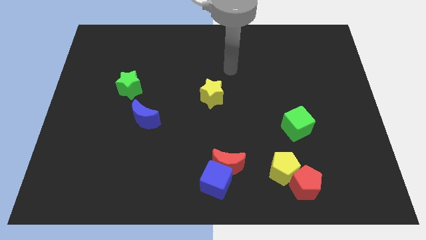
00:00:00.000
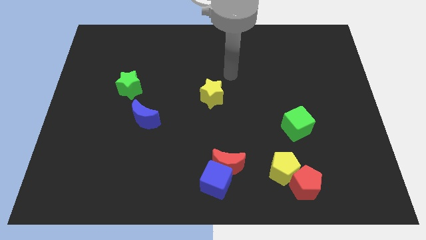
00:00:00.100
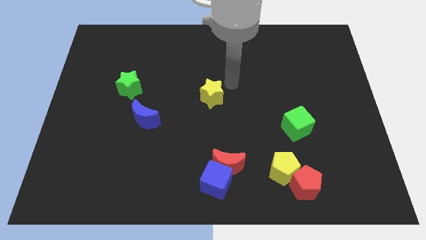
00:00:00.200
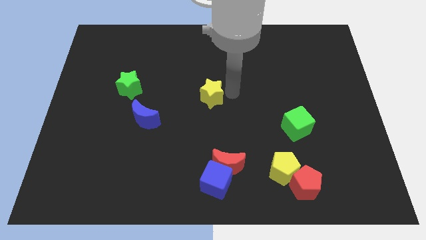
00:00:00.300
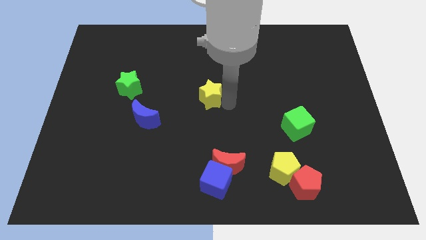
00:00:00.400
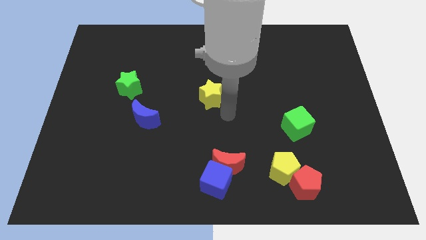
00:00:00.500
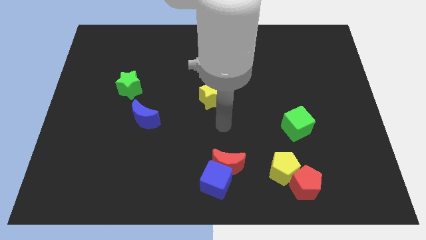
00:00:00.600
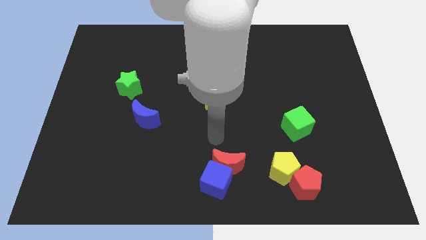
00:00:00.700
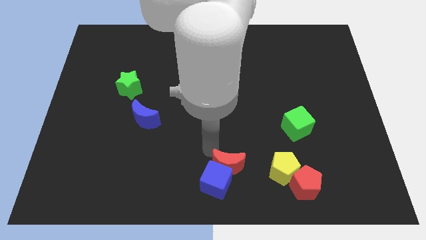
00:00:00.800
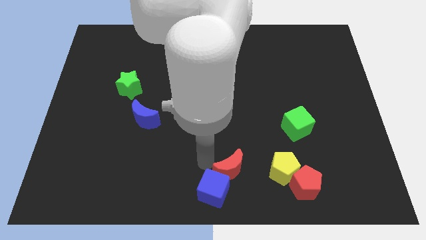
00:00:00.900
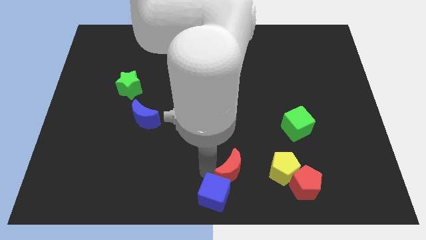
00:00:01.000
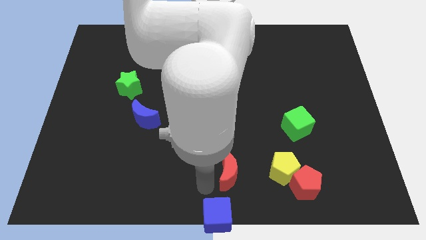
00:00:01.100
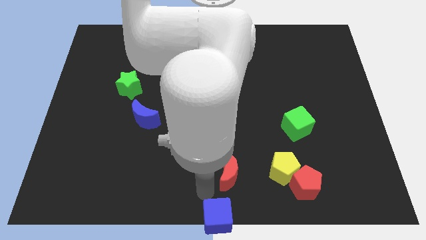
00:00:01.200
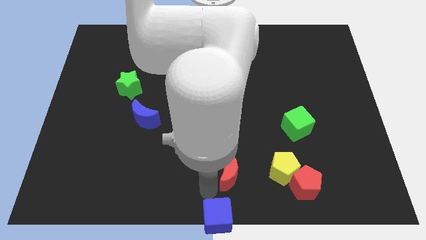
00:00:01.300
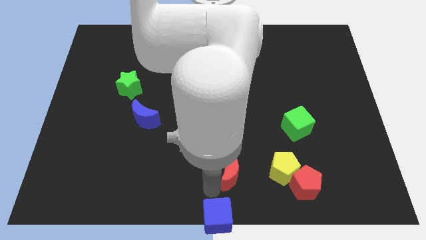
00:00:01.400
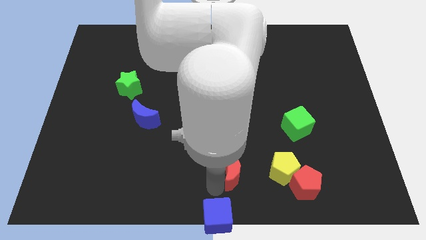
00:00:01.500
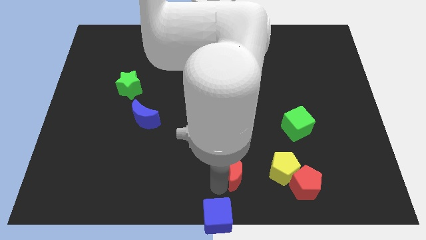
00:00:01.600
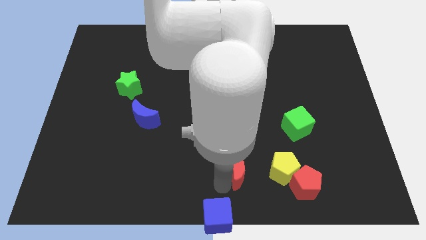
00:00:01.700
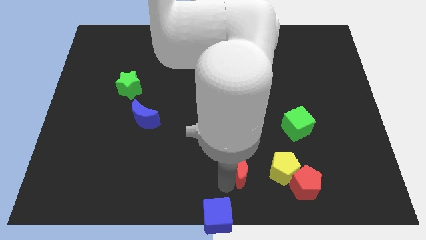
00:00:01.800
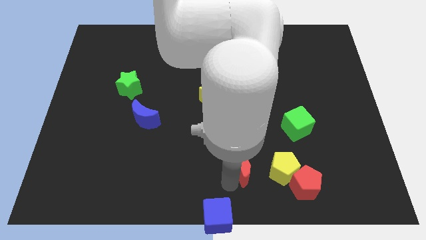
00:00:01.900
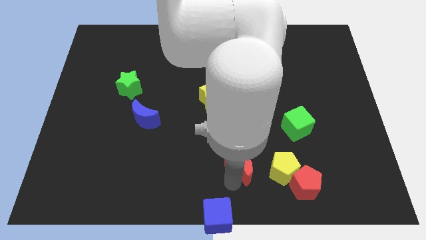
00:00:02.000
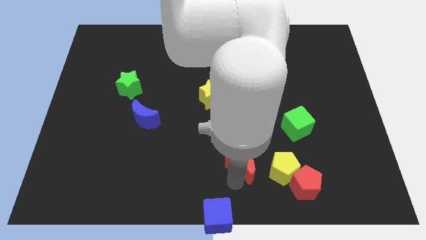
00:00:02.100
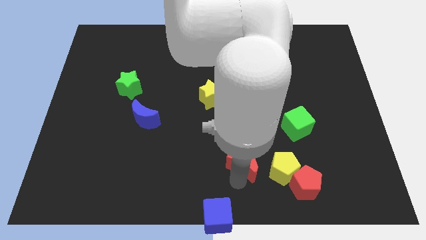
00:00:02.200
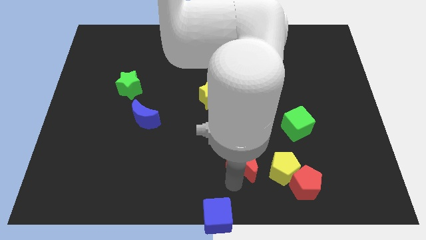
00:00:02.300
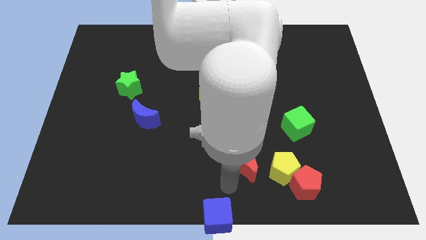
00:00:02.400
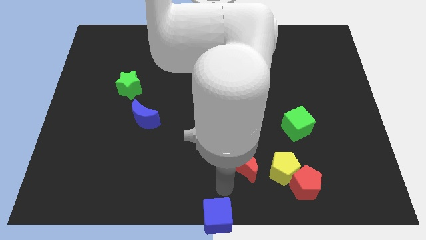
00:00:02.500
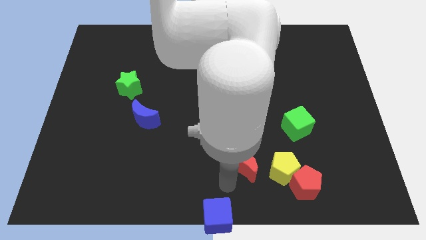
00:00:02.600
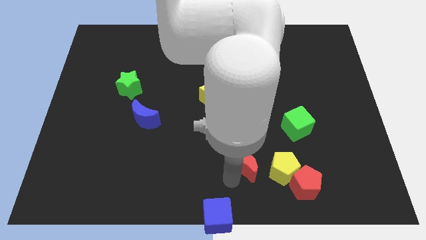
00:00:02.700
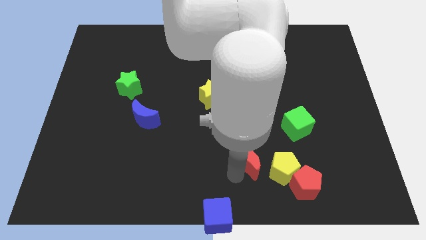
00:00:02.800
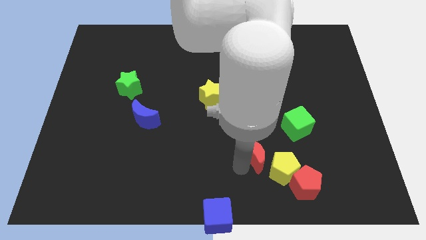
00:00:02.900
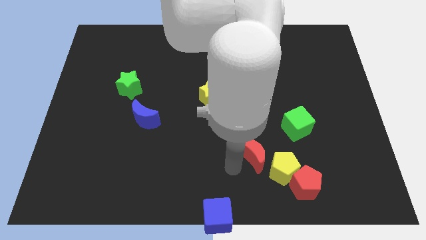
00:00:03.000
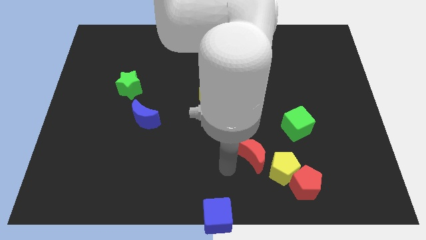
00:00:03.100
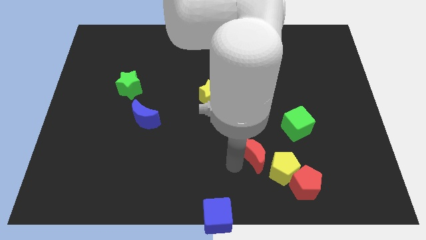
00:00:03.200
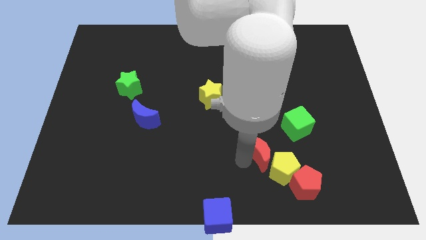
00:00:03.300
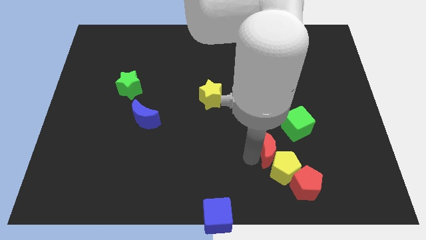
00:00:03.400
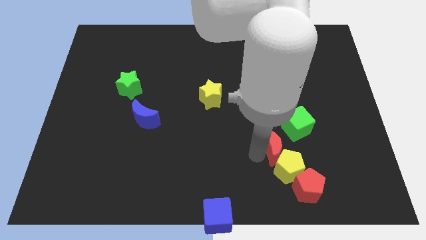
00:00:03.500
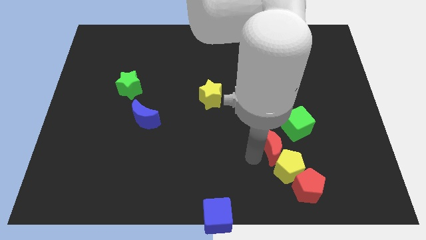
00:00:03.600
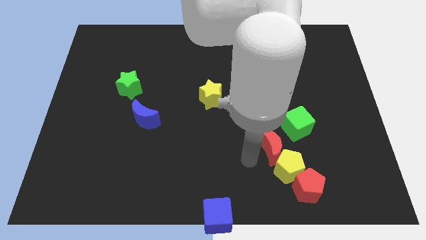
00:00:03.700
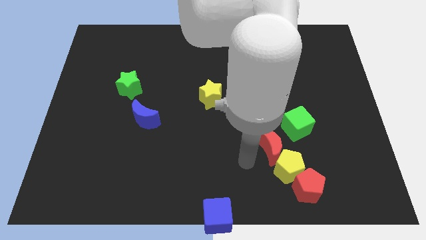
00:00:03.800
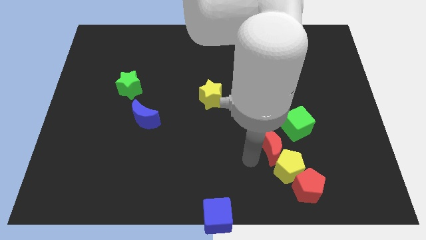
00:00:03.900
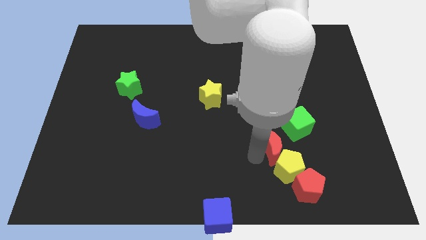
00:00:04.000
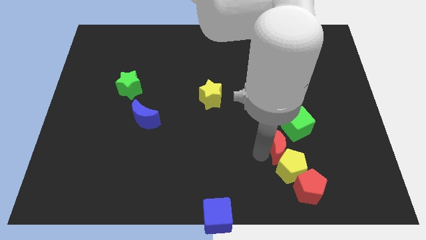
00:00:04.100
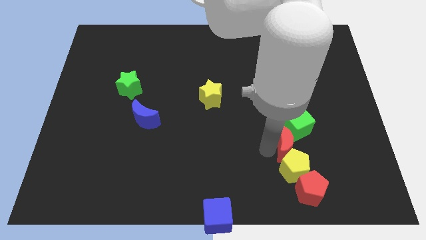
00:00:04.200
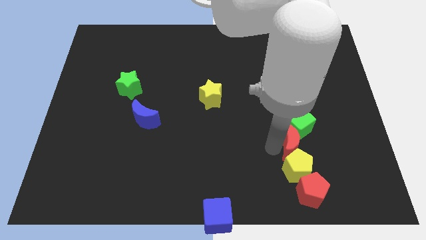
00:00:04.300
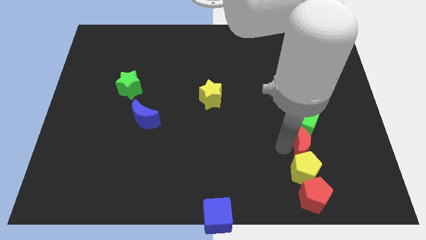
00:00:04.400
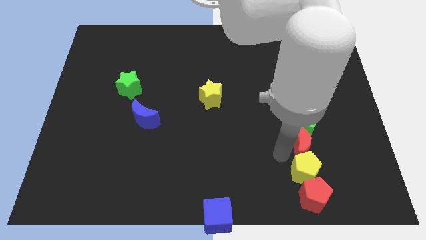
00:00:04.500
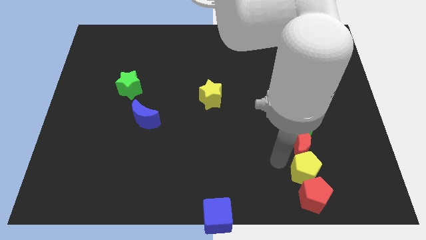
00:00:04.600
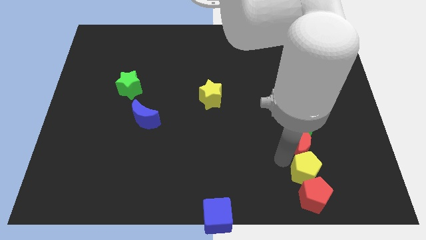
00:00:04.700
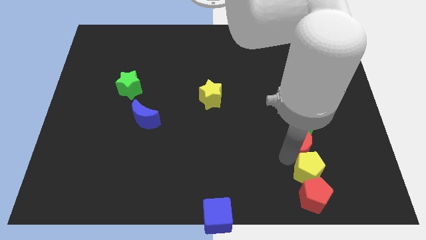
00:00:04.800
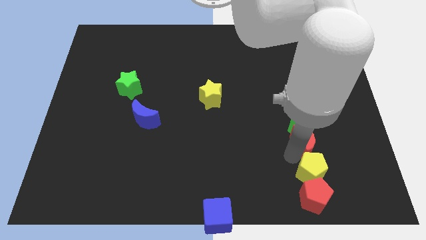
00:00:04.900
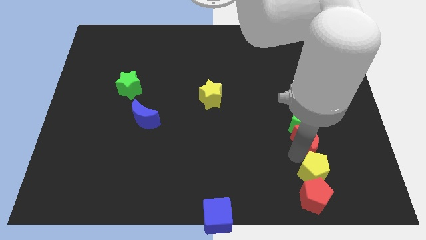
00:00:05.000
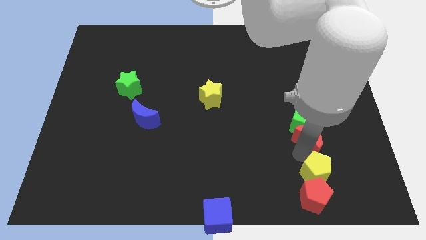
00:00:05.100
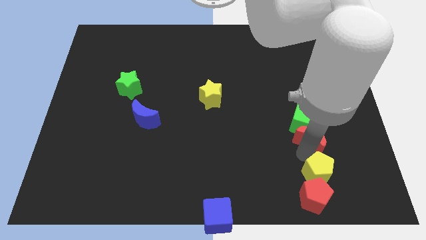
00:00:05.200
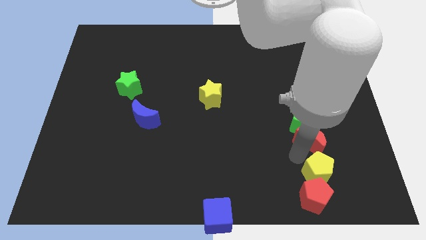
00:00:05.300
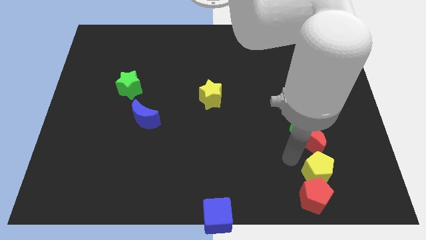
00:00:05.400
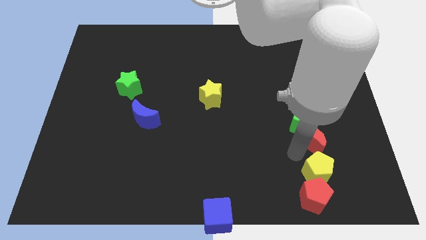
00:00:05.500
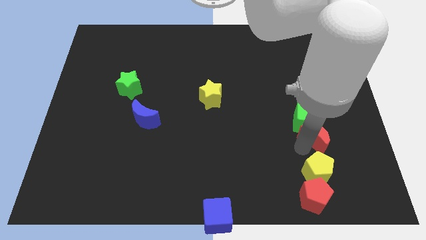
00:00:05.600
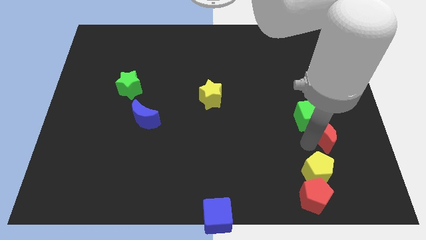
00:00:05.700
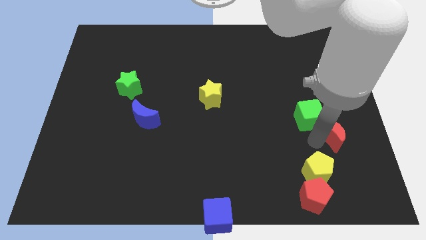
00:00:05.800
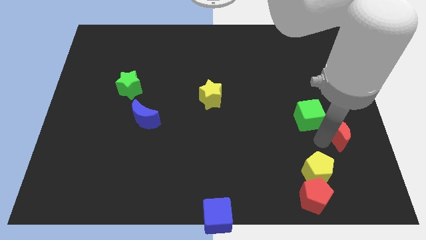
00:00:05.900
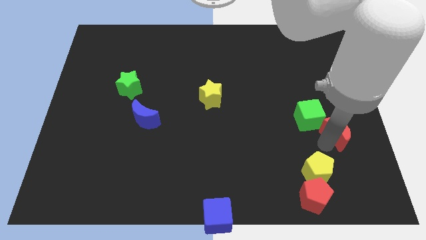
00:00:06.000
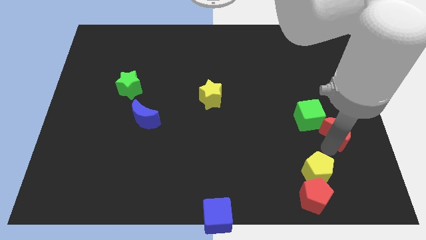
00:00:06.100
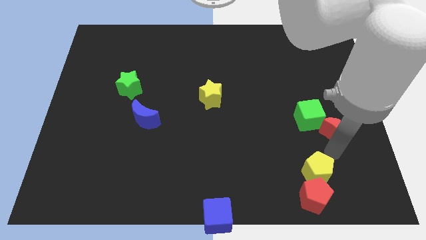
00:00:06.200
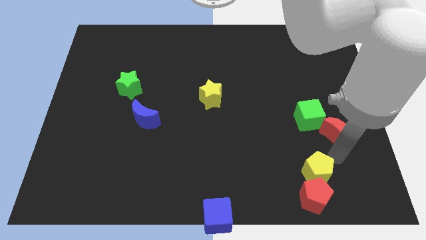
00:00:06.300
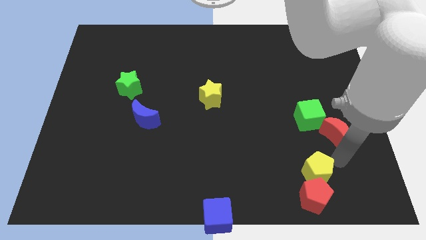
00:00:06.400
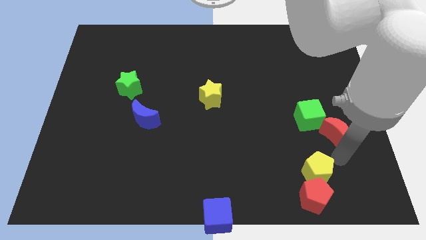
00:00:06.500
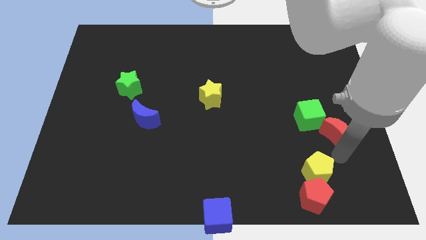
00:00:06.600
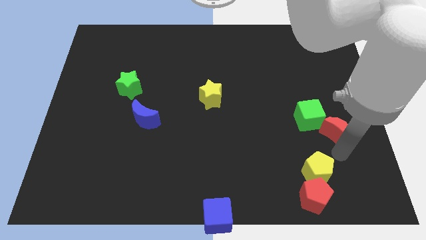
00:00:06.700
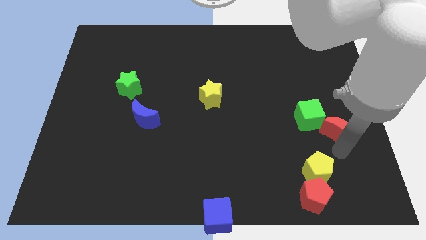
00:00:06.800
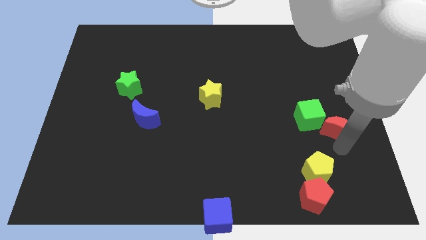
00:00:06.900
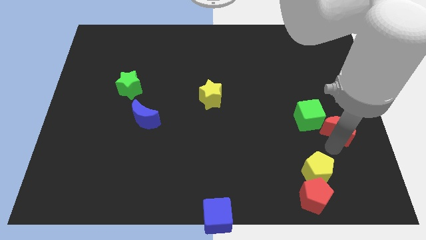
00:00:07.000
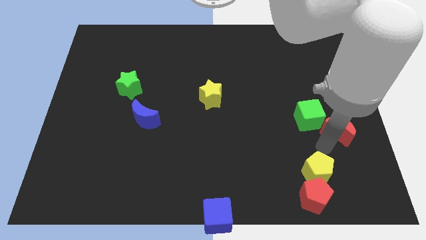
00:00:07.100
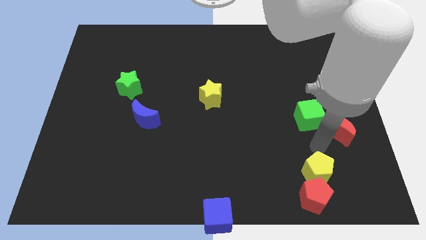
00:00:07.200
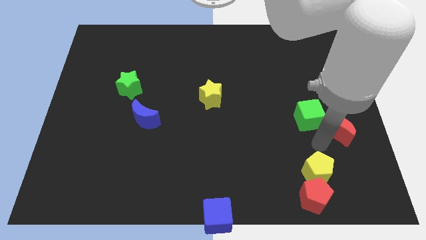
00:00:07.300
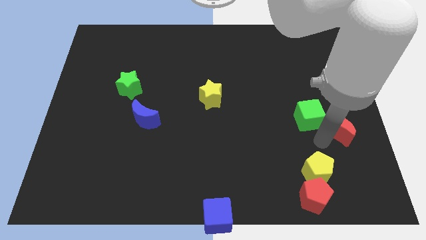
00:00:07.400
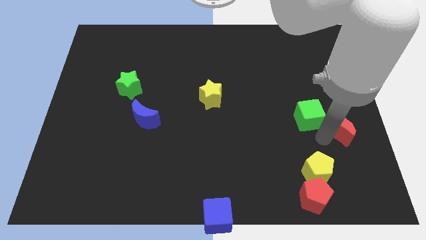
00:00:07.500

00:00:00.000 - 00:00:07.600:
push the red moon to the right side
